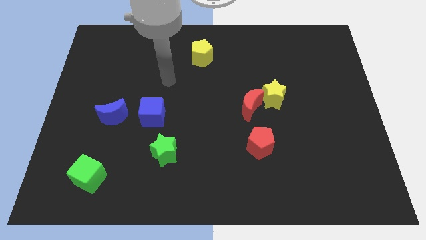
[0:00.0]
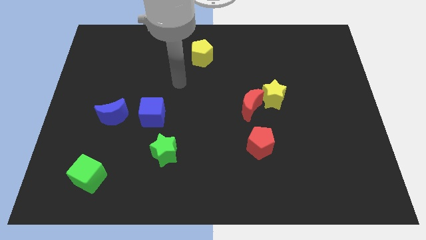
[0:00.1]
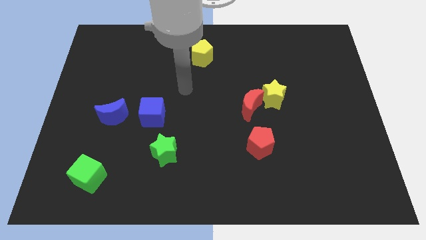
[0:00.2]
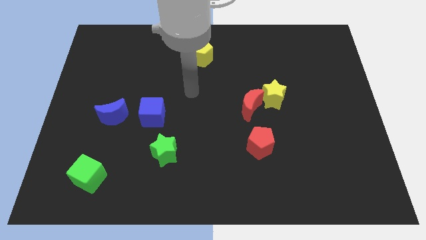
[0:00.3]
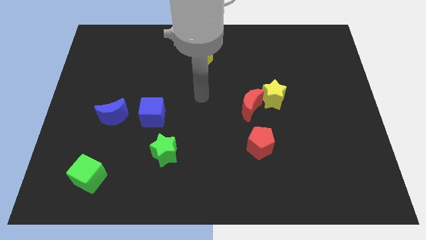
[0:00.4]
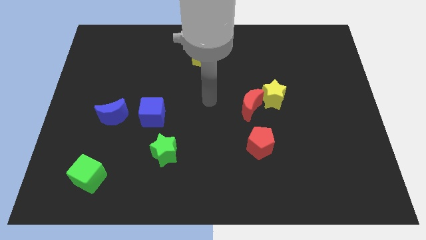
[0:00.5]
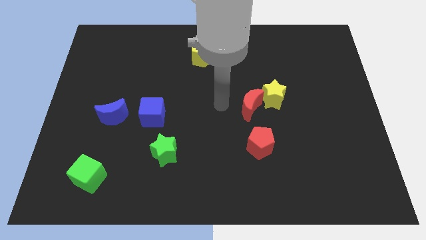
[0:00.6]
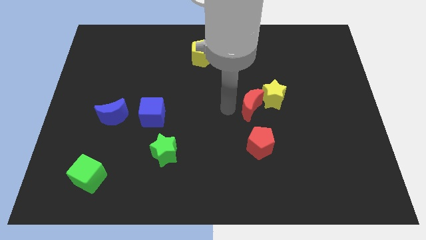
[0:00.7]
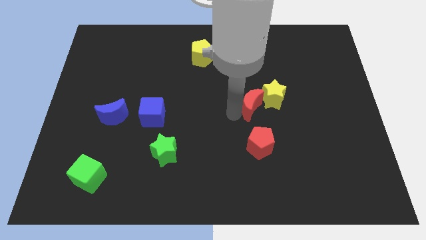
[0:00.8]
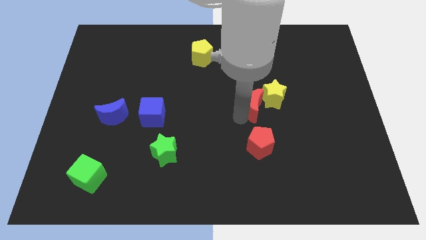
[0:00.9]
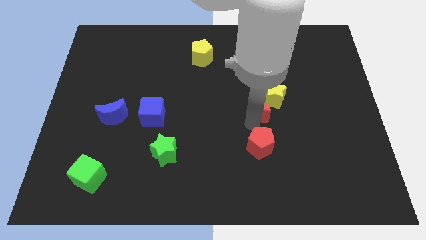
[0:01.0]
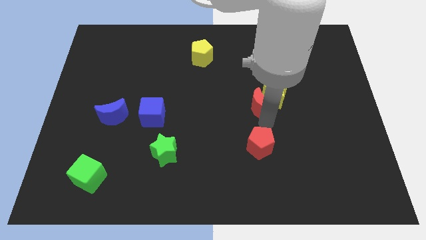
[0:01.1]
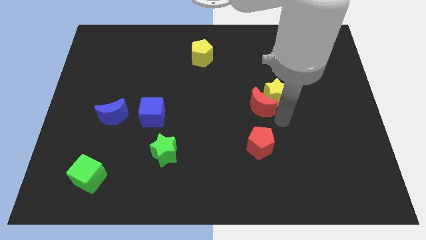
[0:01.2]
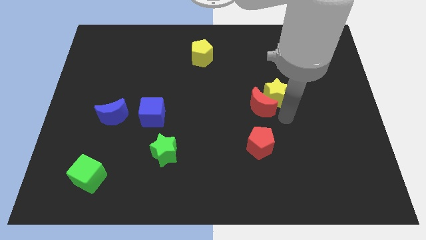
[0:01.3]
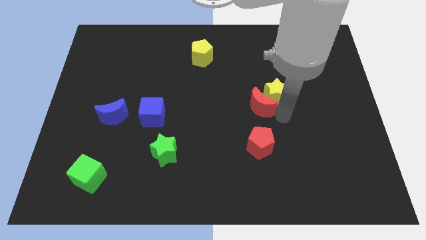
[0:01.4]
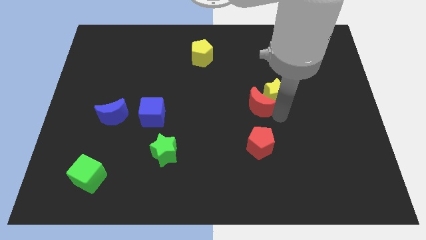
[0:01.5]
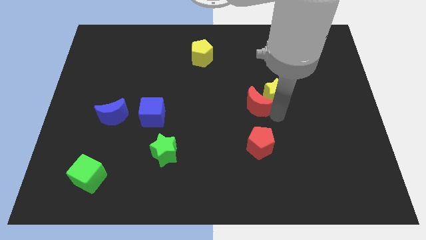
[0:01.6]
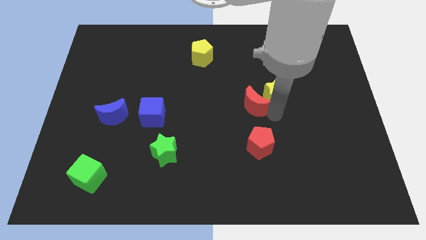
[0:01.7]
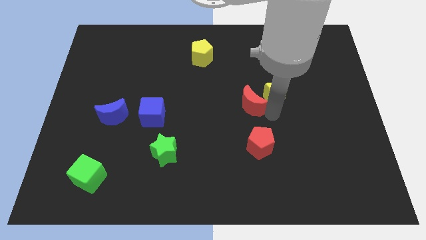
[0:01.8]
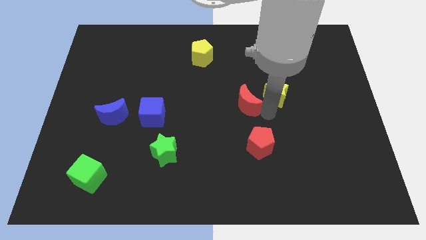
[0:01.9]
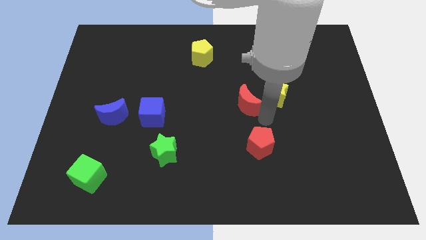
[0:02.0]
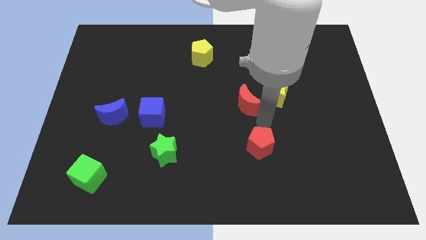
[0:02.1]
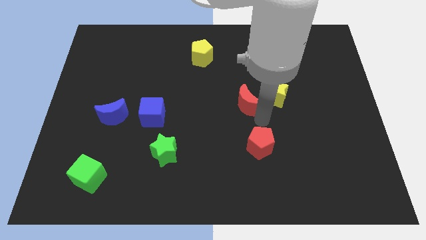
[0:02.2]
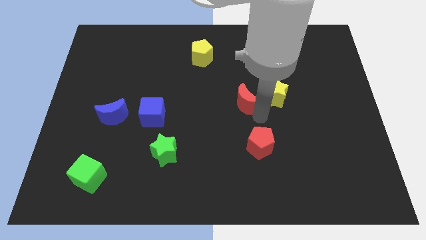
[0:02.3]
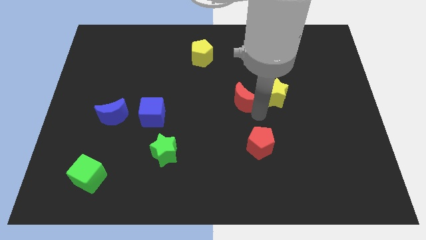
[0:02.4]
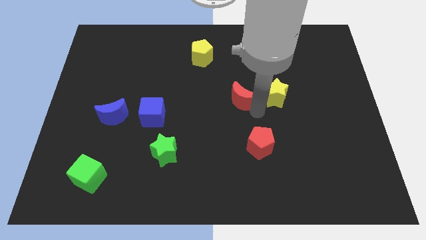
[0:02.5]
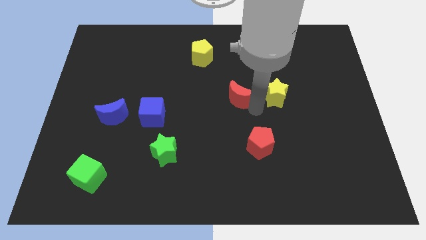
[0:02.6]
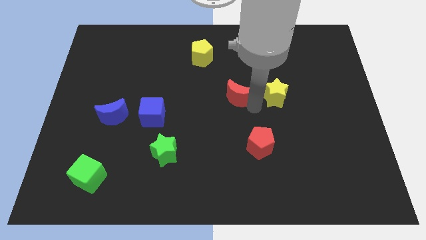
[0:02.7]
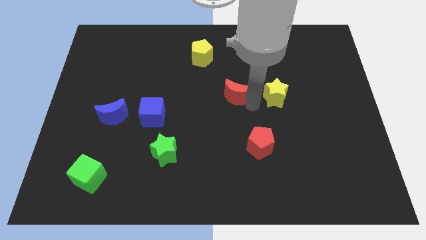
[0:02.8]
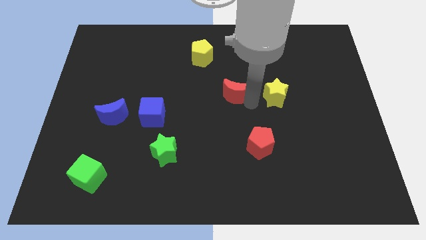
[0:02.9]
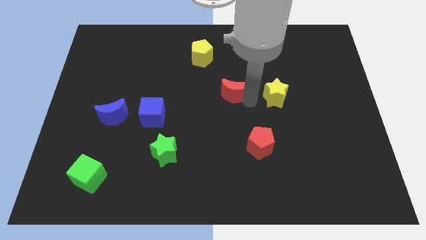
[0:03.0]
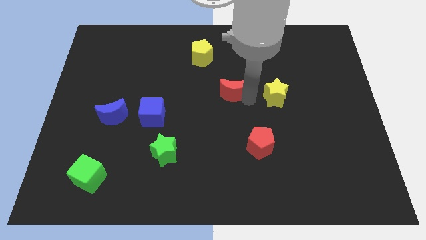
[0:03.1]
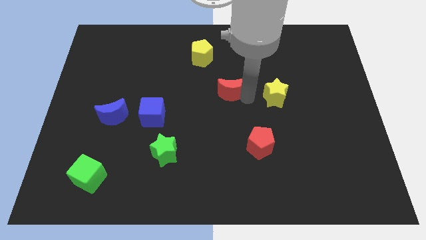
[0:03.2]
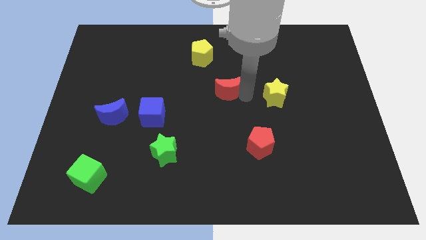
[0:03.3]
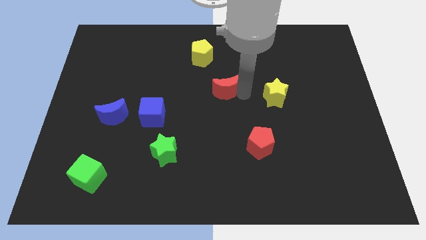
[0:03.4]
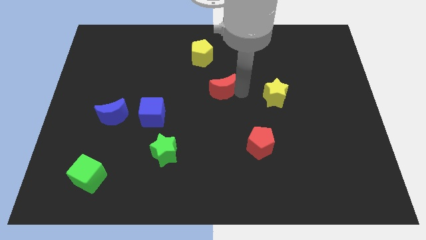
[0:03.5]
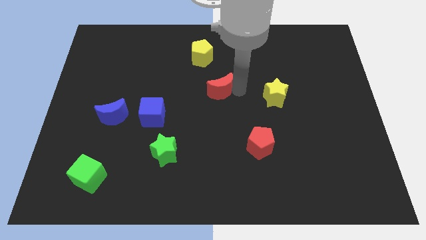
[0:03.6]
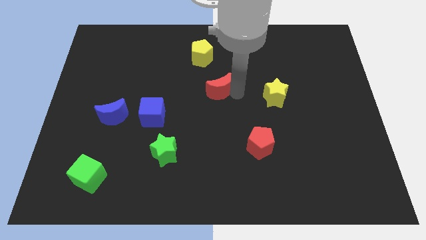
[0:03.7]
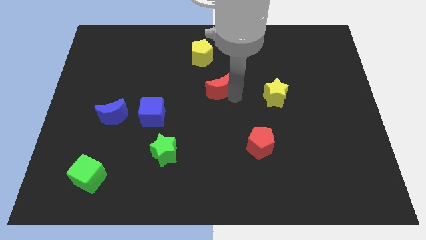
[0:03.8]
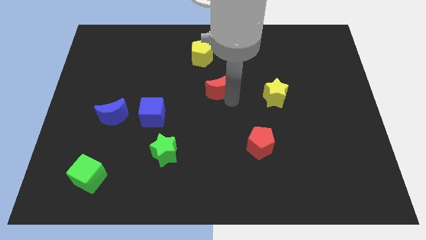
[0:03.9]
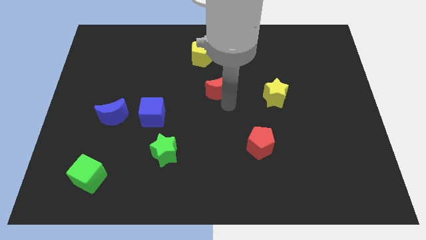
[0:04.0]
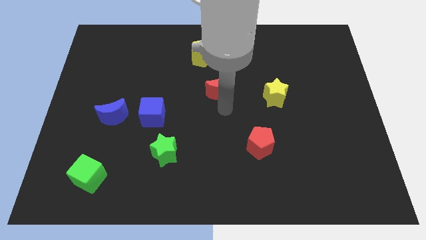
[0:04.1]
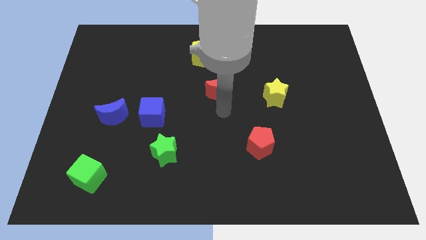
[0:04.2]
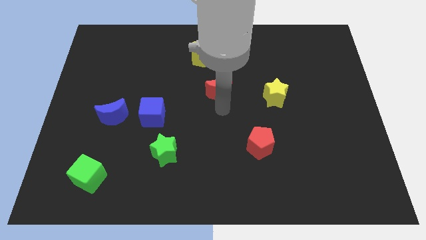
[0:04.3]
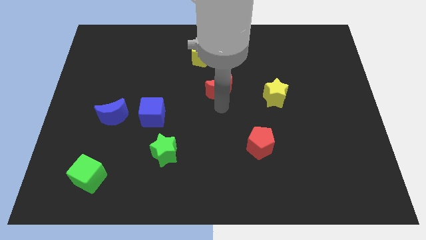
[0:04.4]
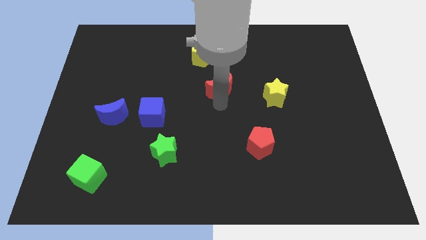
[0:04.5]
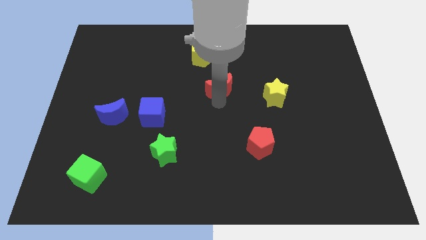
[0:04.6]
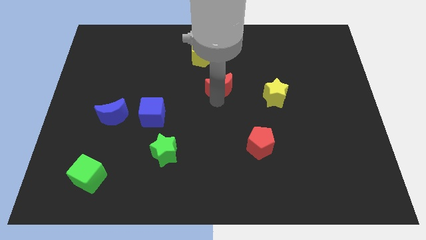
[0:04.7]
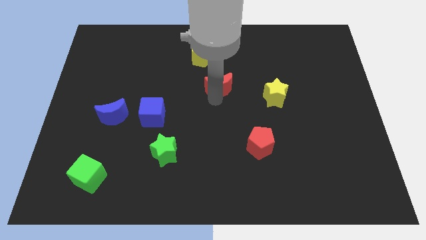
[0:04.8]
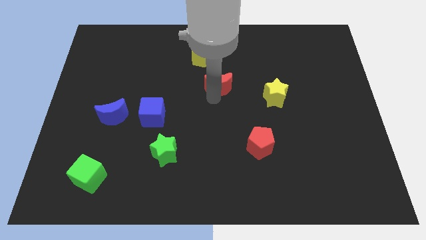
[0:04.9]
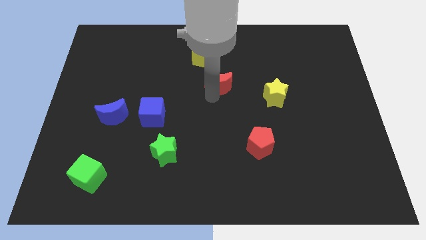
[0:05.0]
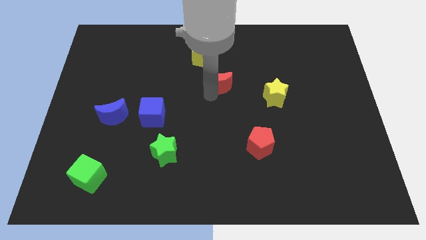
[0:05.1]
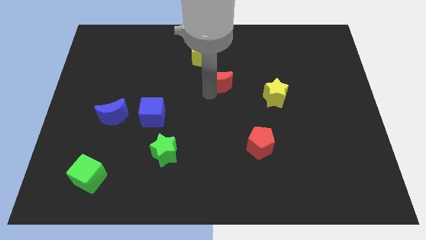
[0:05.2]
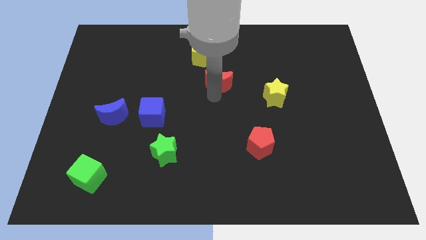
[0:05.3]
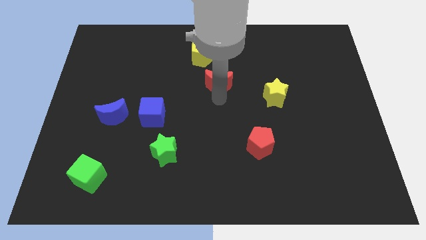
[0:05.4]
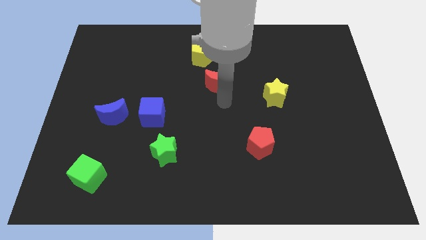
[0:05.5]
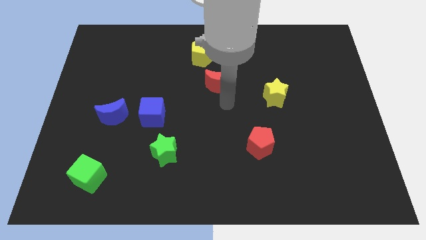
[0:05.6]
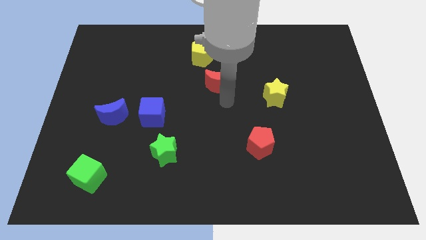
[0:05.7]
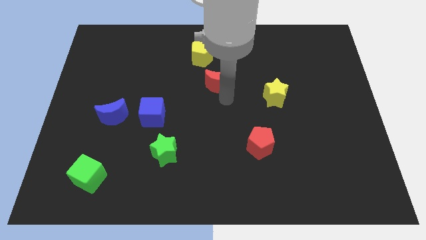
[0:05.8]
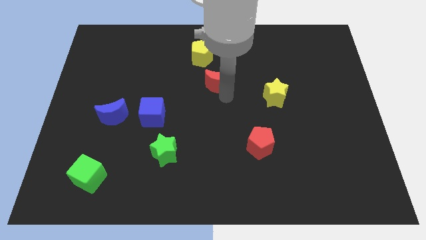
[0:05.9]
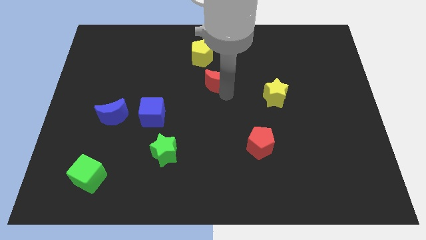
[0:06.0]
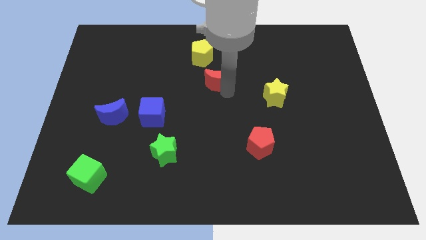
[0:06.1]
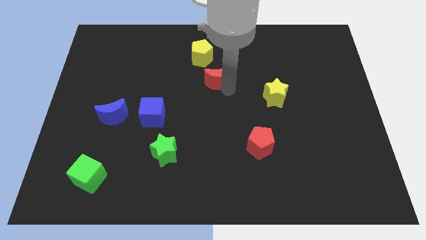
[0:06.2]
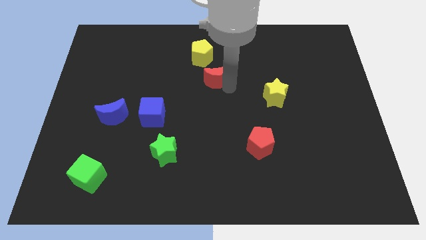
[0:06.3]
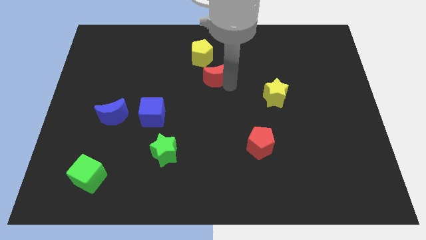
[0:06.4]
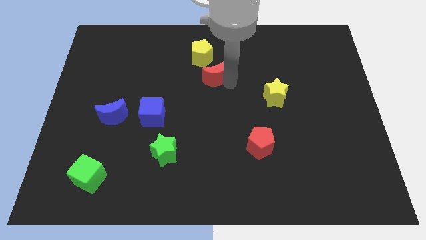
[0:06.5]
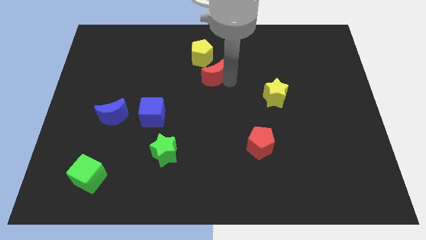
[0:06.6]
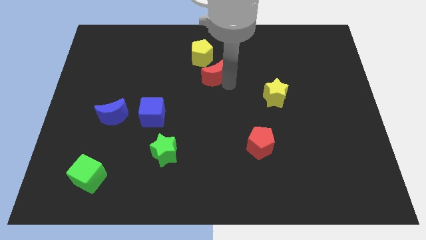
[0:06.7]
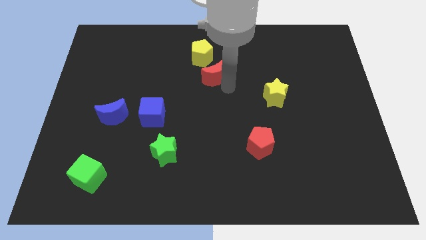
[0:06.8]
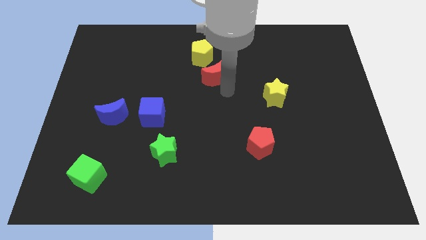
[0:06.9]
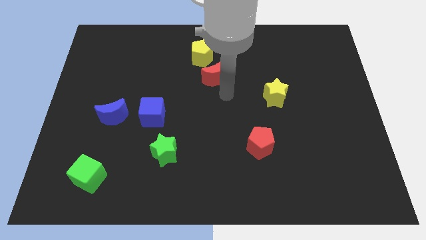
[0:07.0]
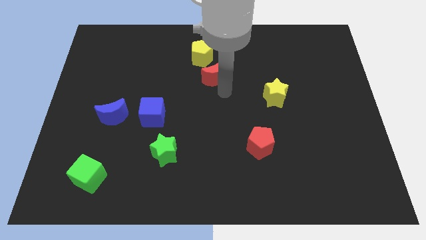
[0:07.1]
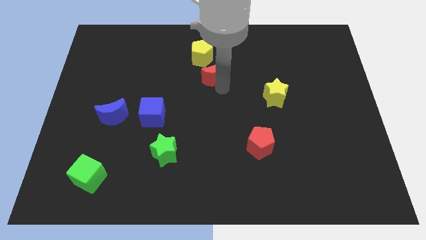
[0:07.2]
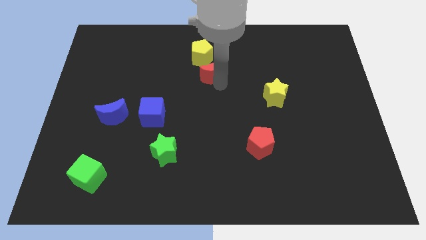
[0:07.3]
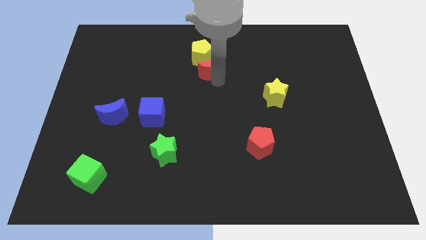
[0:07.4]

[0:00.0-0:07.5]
slide the red moon to the yellow pentagon
